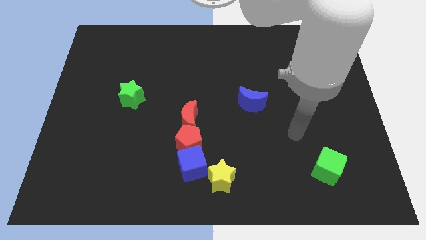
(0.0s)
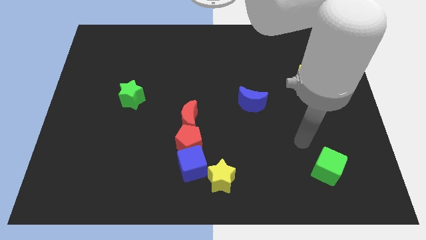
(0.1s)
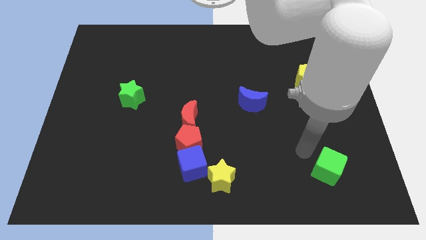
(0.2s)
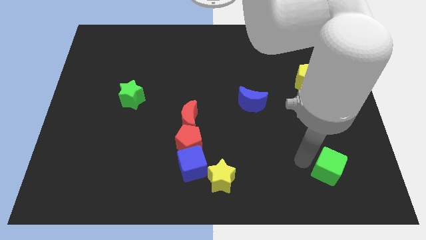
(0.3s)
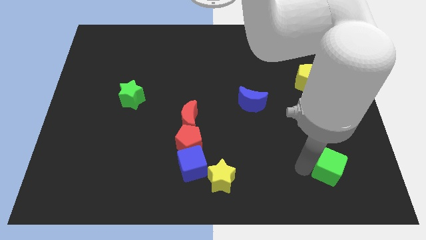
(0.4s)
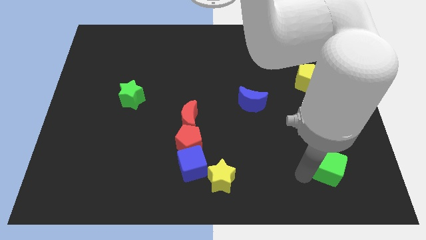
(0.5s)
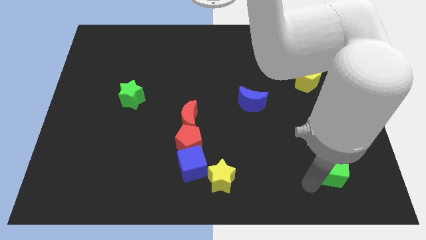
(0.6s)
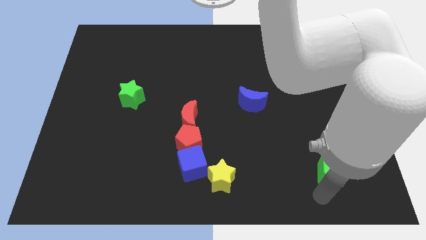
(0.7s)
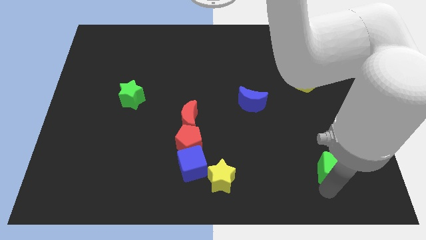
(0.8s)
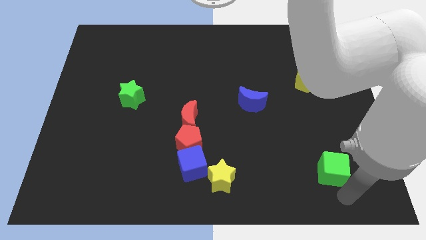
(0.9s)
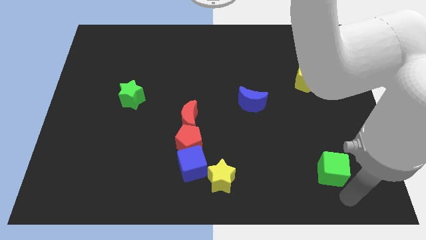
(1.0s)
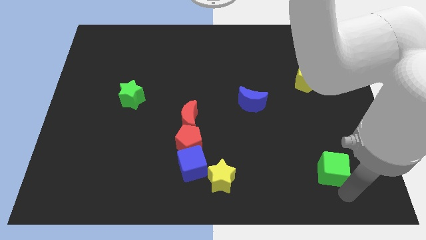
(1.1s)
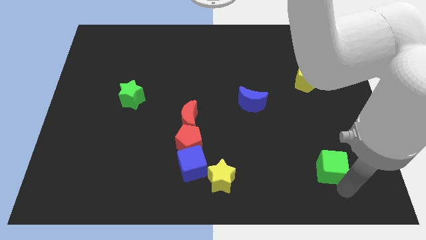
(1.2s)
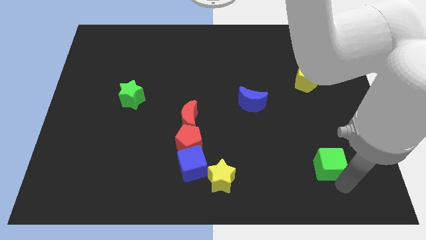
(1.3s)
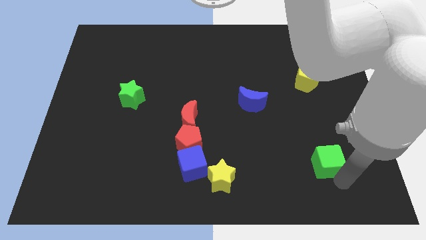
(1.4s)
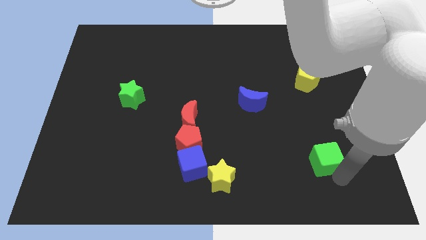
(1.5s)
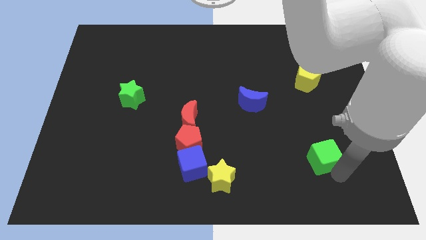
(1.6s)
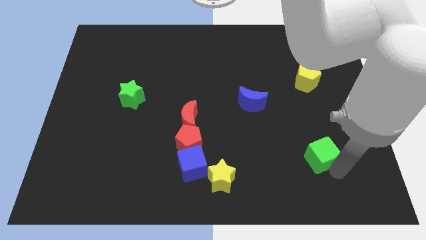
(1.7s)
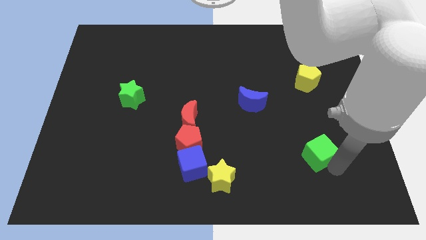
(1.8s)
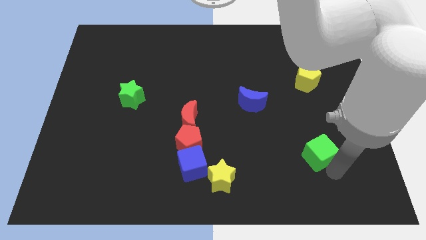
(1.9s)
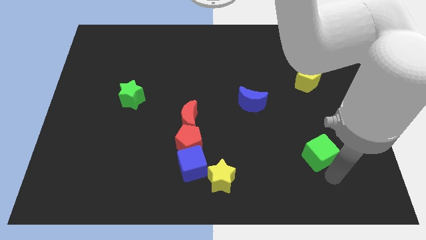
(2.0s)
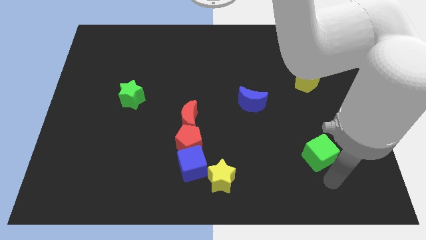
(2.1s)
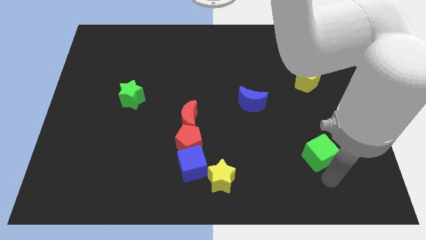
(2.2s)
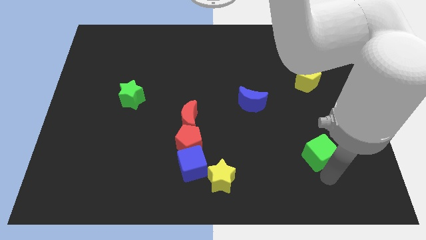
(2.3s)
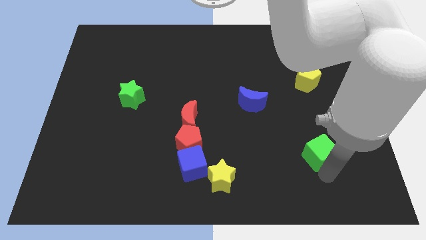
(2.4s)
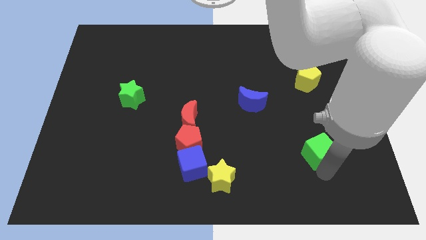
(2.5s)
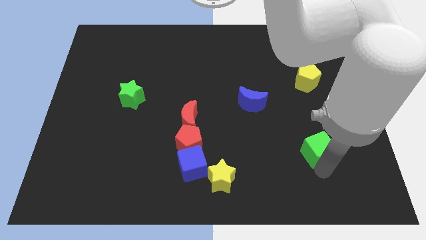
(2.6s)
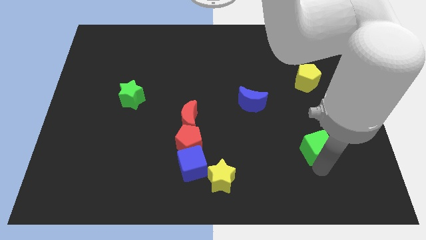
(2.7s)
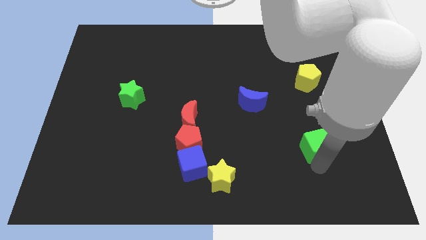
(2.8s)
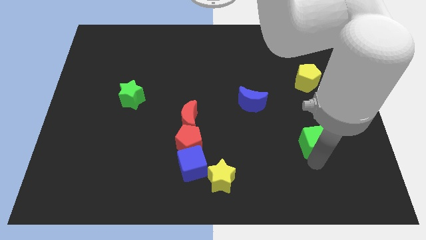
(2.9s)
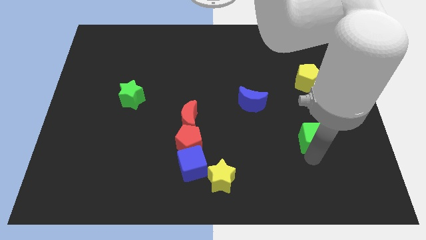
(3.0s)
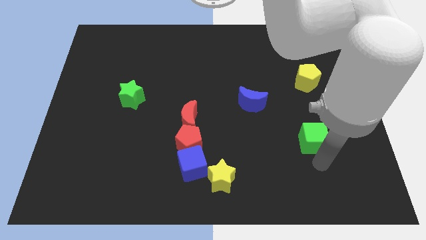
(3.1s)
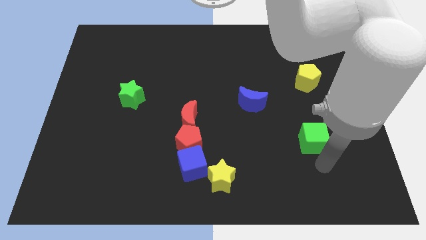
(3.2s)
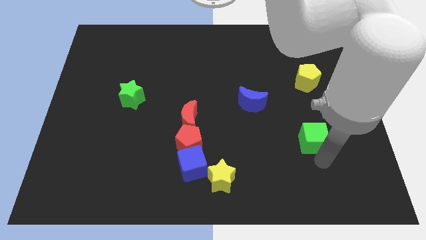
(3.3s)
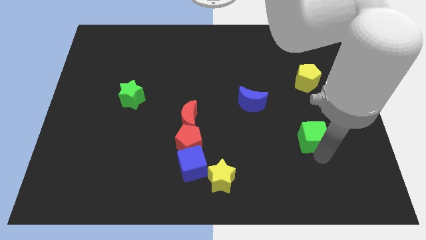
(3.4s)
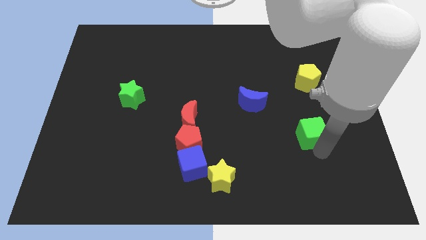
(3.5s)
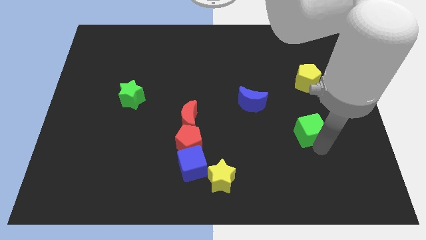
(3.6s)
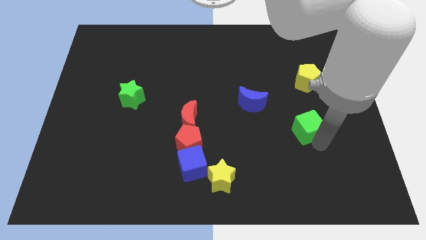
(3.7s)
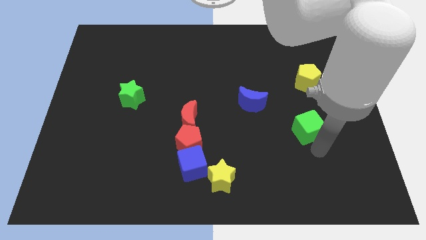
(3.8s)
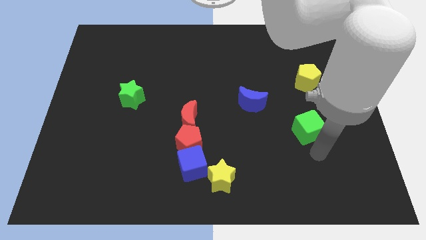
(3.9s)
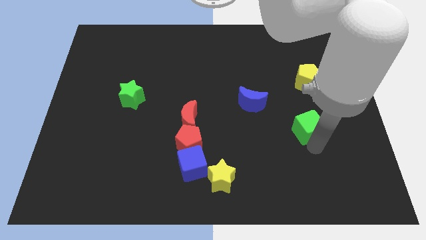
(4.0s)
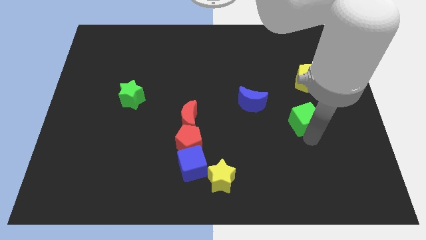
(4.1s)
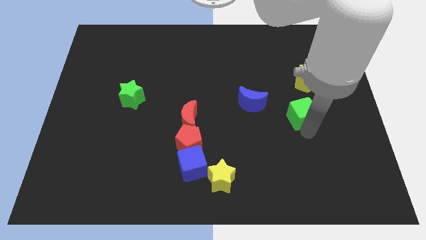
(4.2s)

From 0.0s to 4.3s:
put the green cube to the right of the blue moon

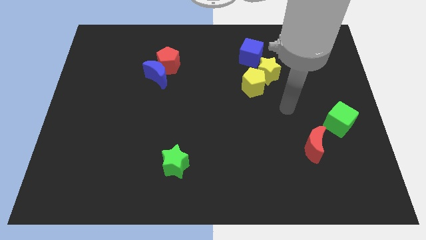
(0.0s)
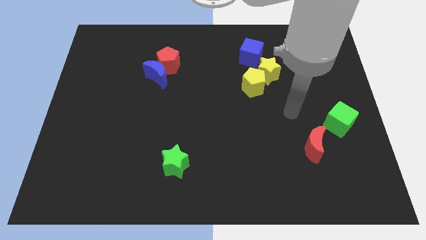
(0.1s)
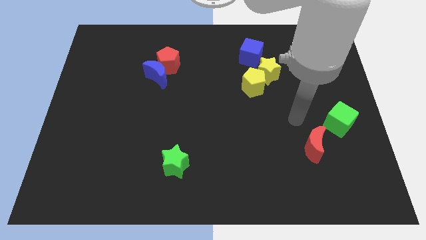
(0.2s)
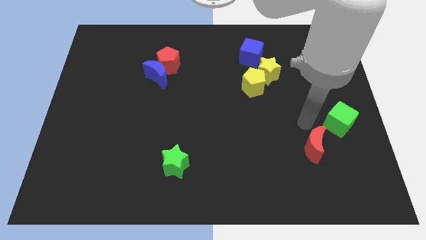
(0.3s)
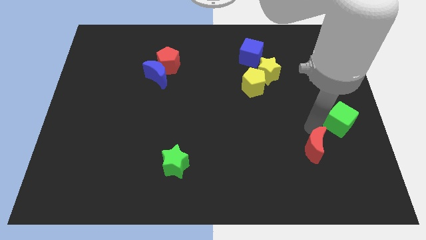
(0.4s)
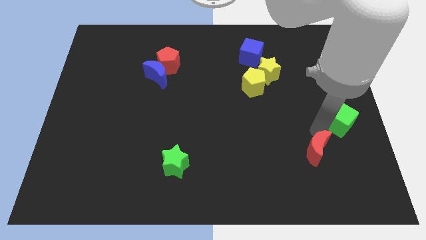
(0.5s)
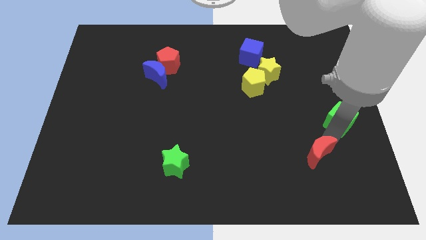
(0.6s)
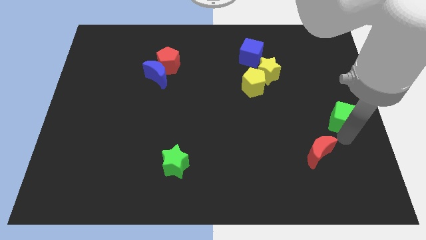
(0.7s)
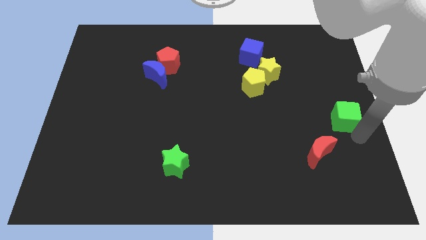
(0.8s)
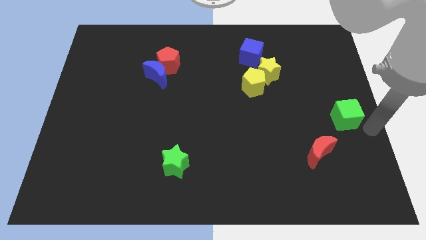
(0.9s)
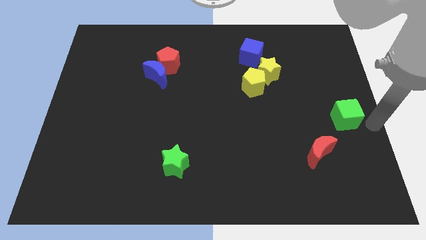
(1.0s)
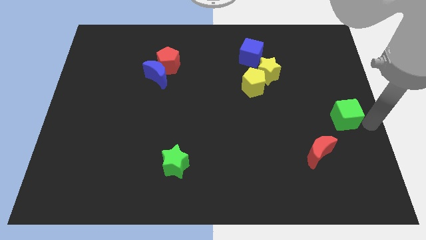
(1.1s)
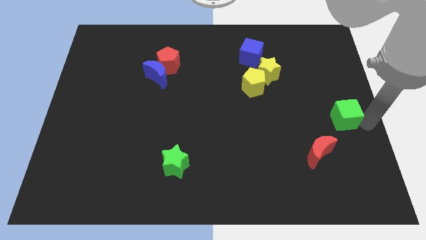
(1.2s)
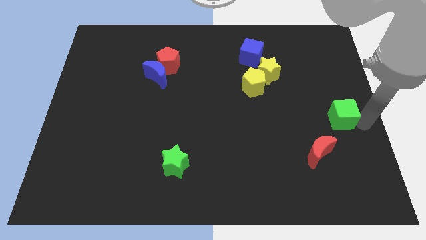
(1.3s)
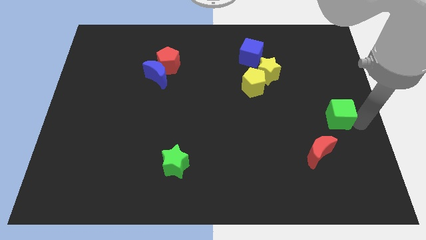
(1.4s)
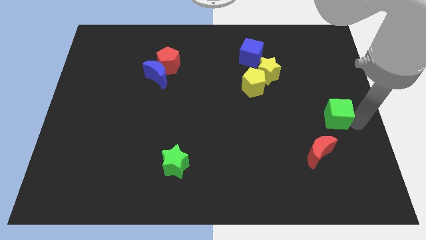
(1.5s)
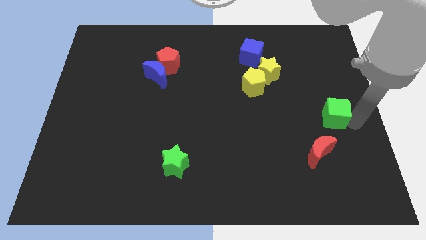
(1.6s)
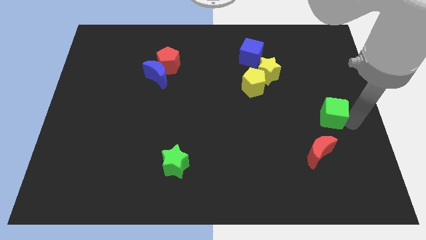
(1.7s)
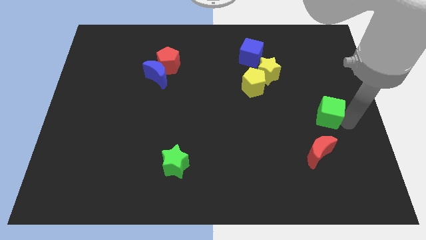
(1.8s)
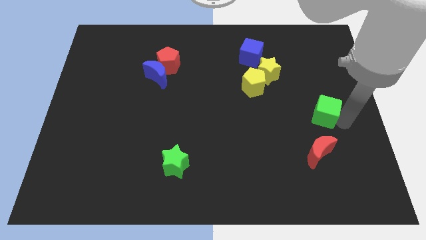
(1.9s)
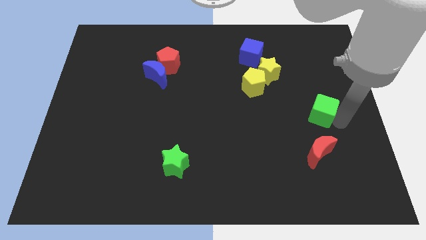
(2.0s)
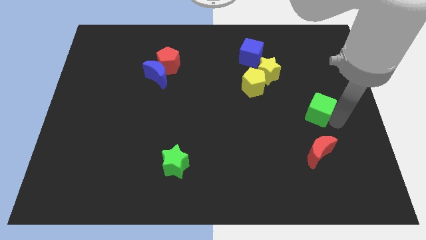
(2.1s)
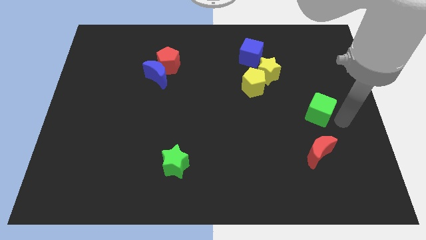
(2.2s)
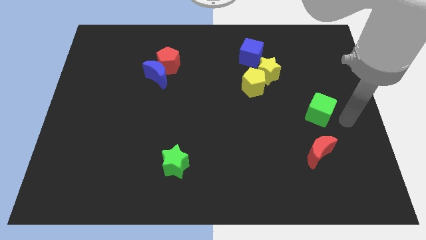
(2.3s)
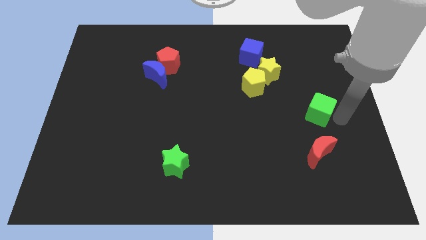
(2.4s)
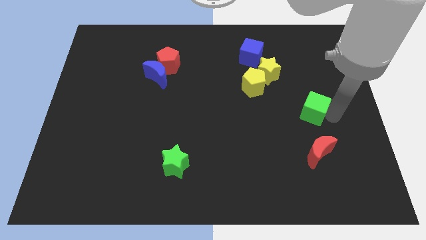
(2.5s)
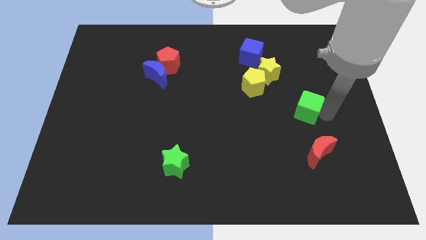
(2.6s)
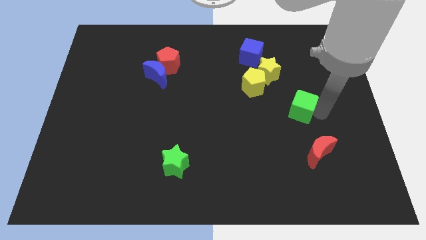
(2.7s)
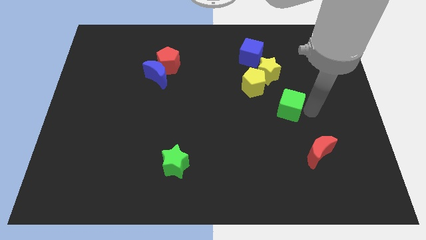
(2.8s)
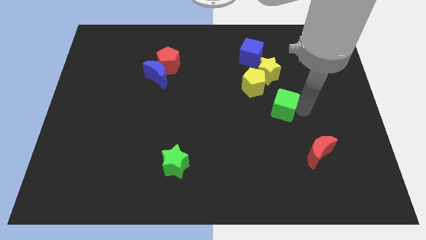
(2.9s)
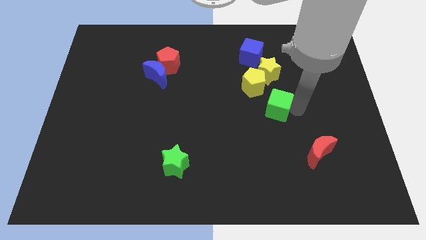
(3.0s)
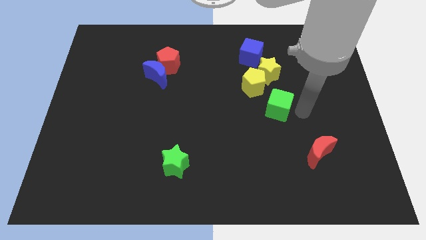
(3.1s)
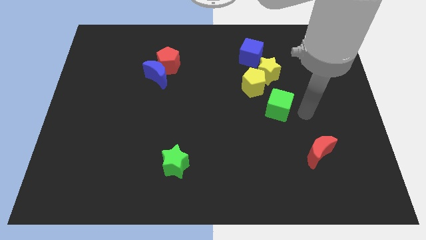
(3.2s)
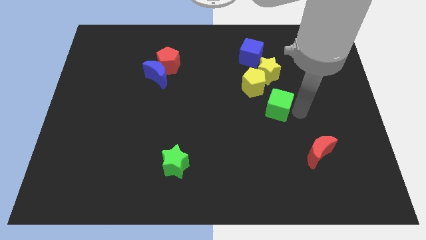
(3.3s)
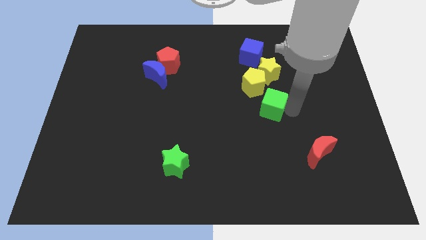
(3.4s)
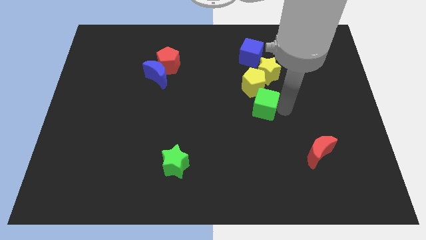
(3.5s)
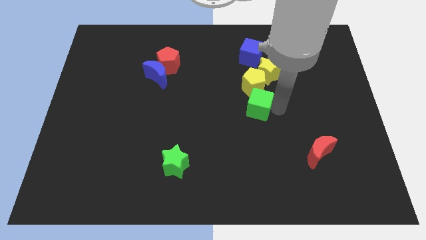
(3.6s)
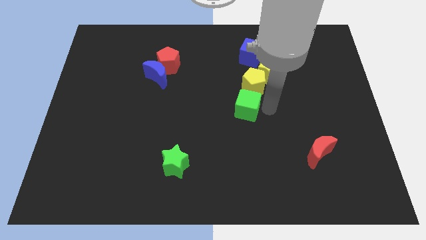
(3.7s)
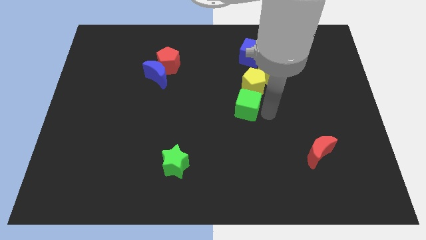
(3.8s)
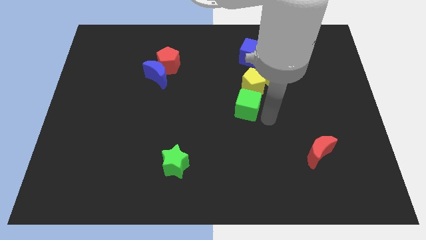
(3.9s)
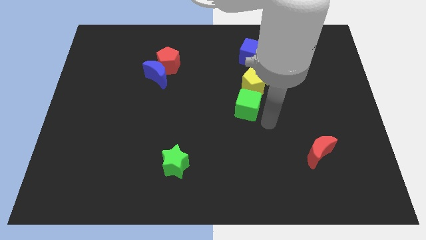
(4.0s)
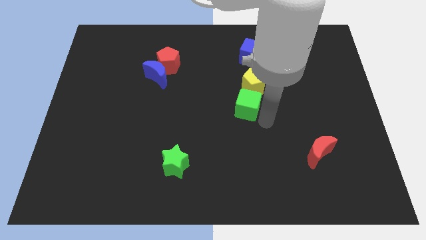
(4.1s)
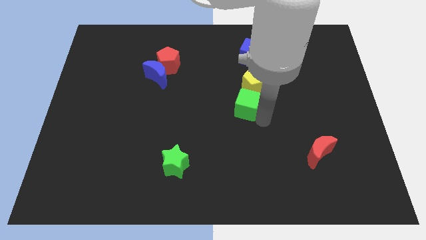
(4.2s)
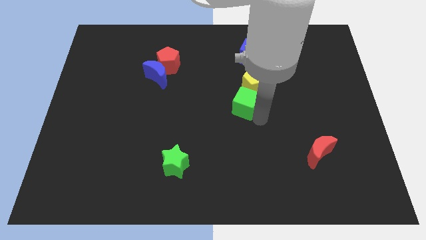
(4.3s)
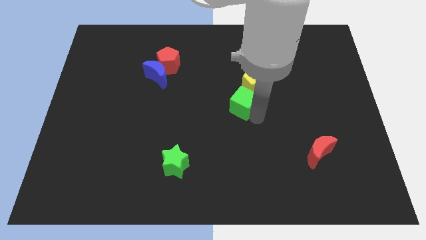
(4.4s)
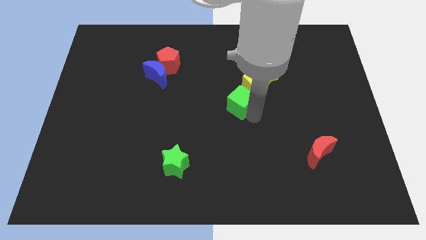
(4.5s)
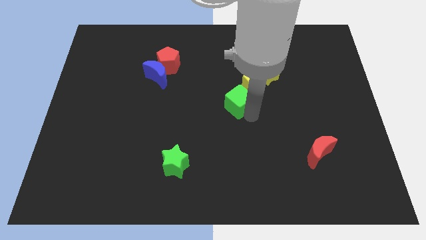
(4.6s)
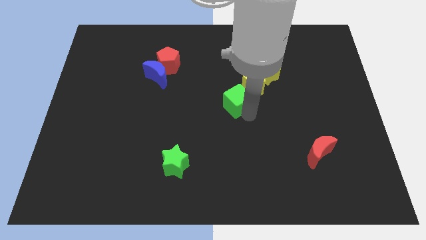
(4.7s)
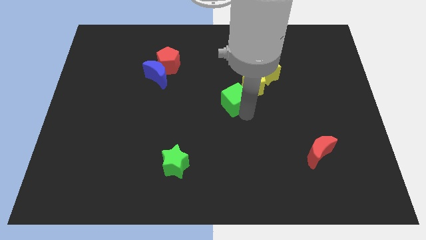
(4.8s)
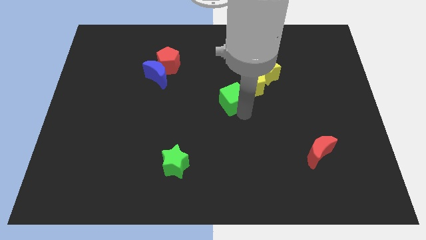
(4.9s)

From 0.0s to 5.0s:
push the green cube to the left side of the yellow pentagon
